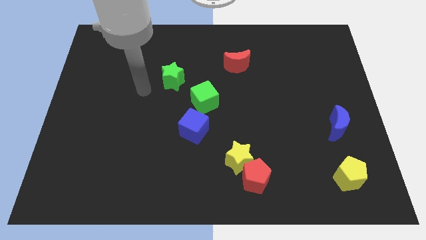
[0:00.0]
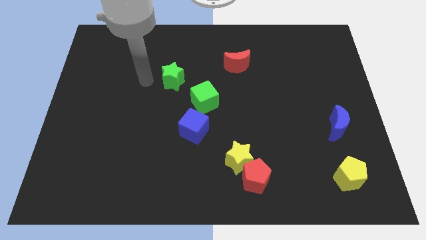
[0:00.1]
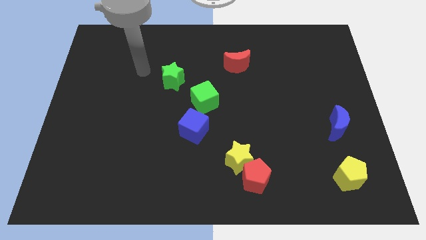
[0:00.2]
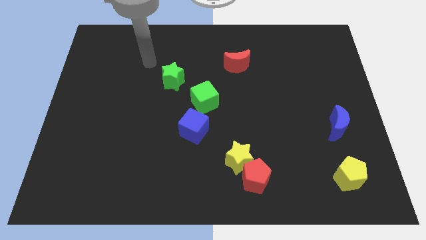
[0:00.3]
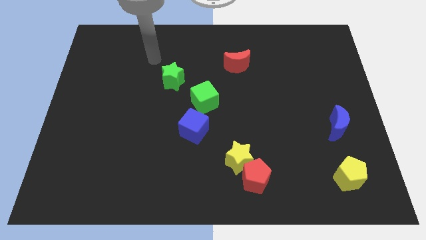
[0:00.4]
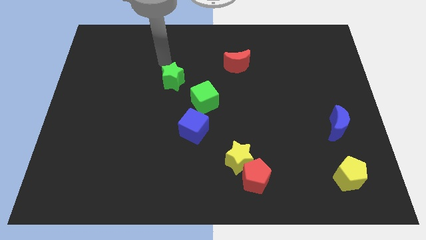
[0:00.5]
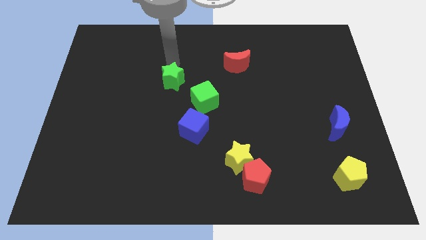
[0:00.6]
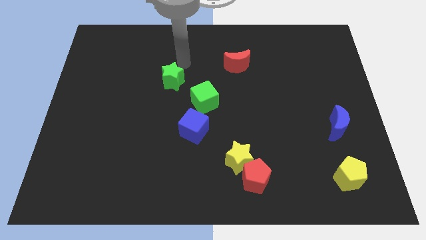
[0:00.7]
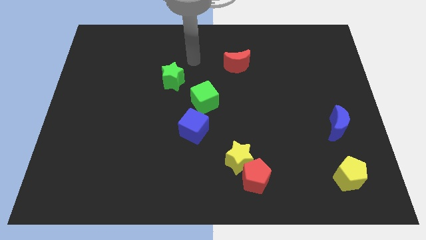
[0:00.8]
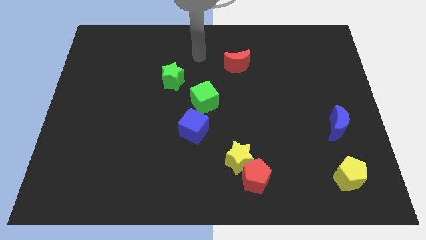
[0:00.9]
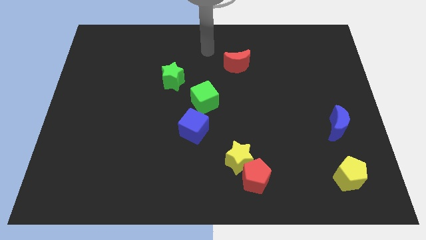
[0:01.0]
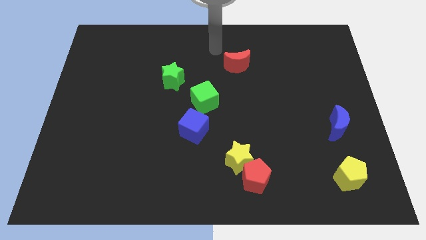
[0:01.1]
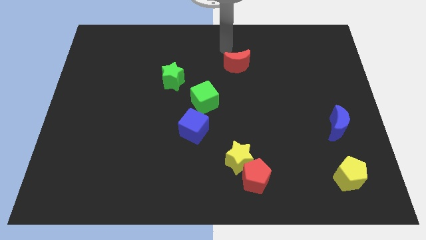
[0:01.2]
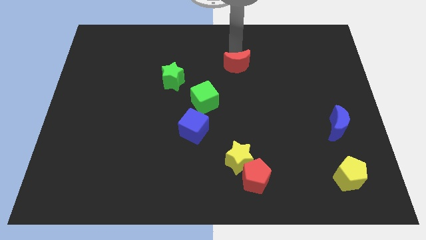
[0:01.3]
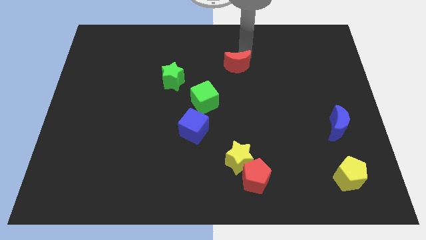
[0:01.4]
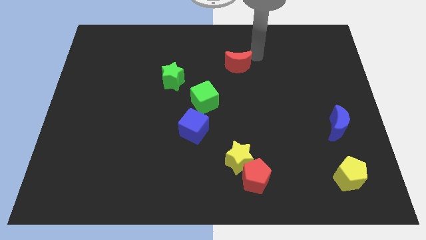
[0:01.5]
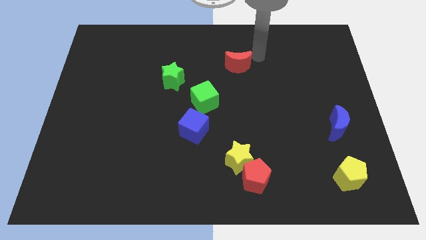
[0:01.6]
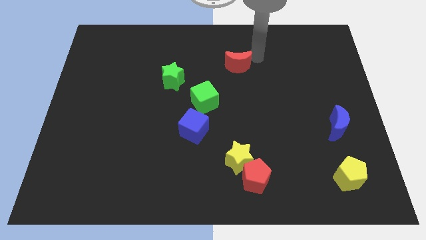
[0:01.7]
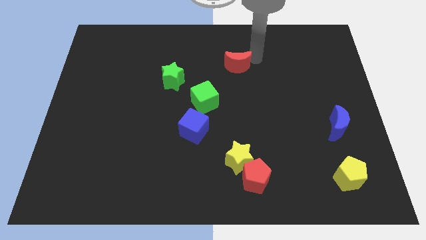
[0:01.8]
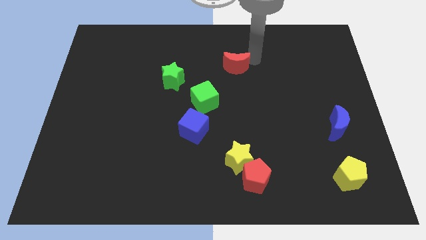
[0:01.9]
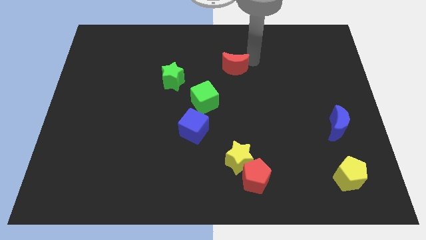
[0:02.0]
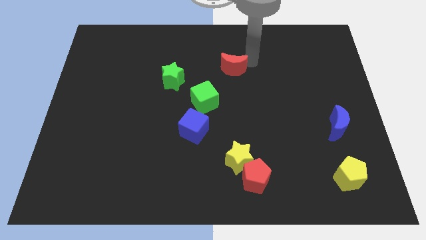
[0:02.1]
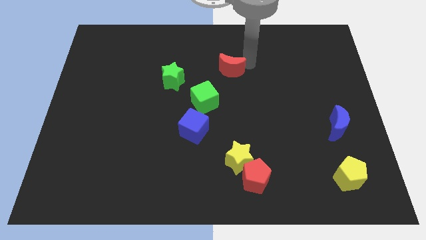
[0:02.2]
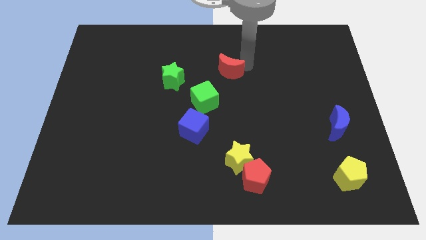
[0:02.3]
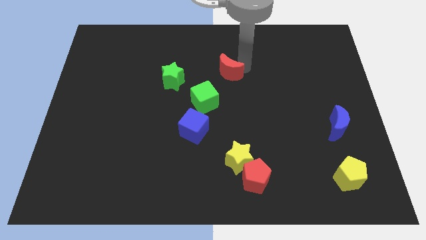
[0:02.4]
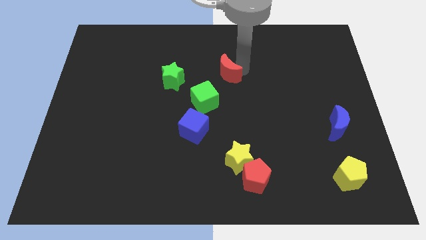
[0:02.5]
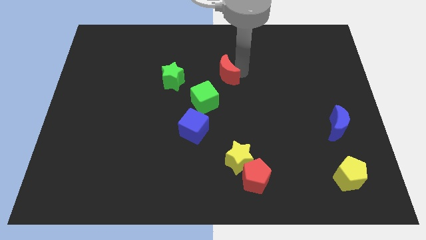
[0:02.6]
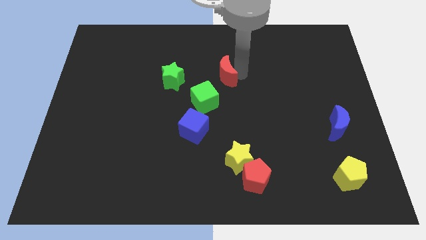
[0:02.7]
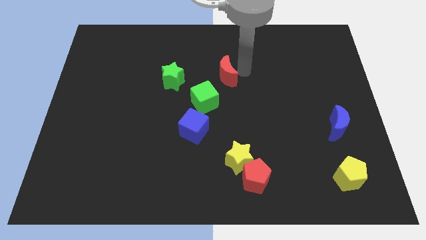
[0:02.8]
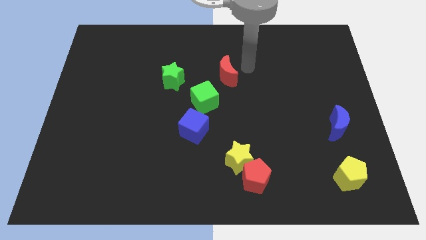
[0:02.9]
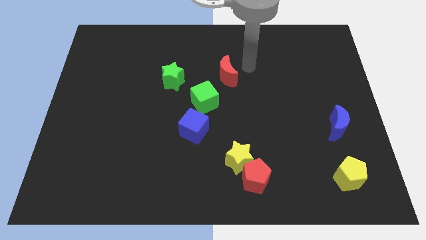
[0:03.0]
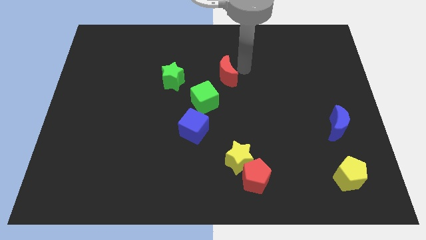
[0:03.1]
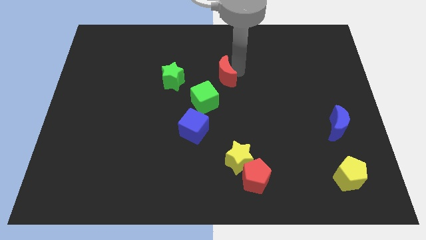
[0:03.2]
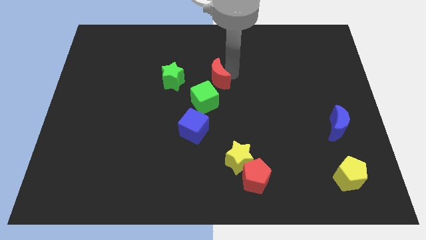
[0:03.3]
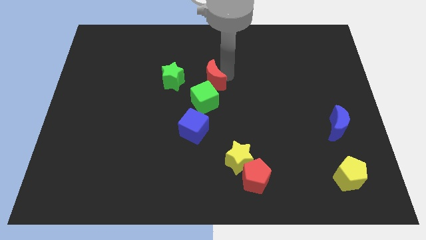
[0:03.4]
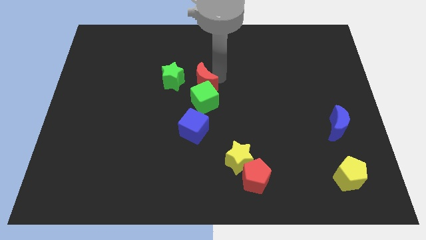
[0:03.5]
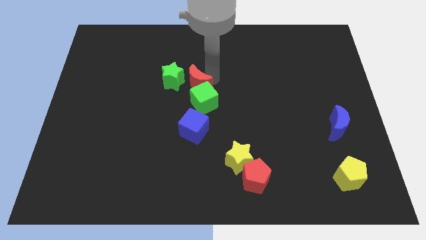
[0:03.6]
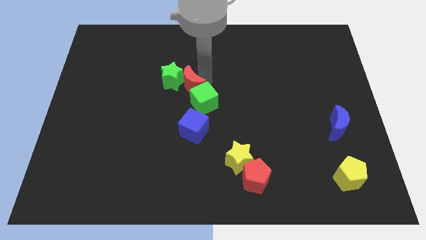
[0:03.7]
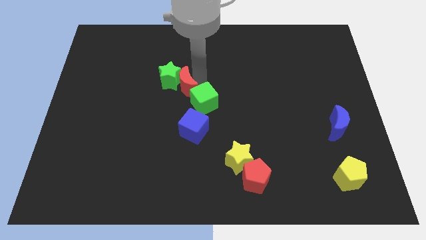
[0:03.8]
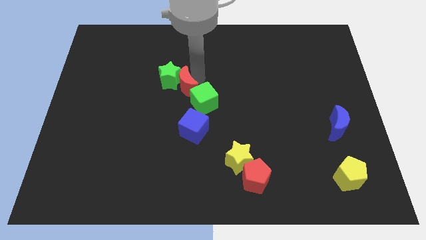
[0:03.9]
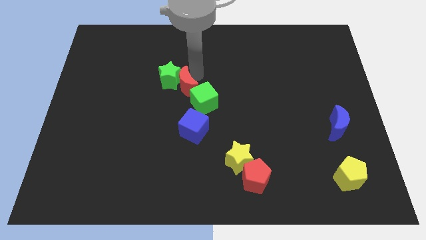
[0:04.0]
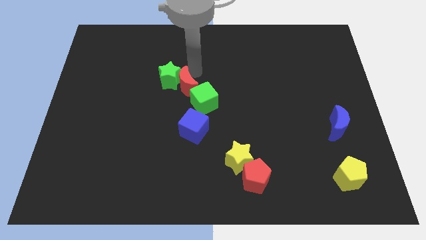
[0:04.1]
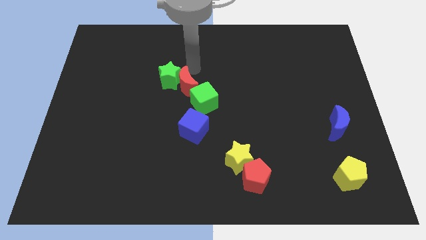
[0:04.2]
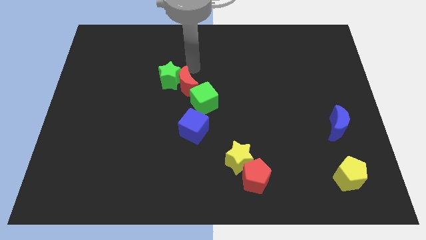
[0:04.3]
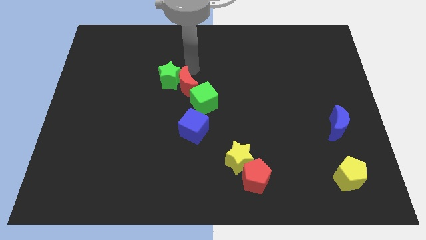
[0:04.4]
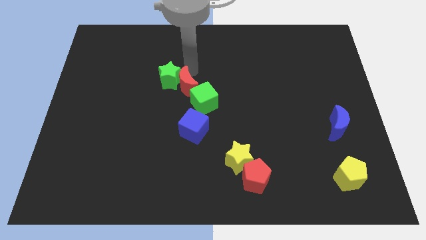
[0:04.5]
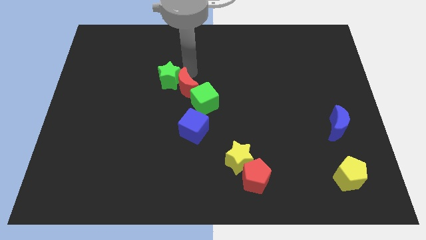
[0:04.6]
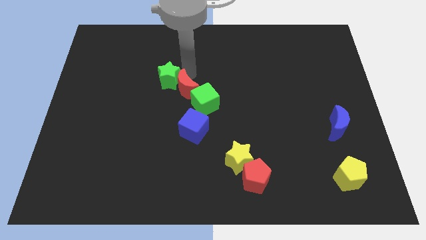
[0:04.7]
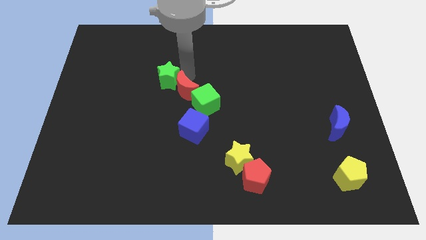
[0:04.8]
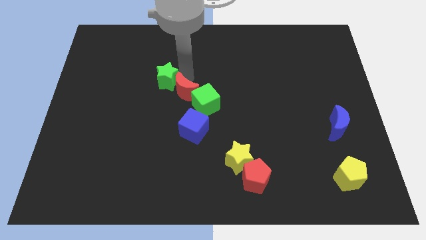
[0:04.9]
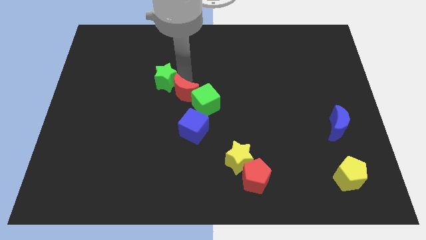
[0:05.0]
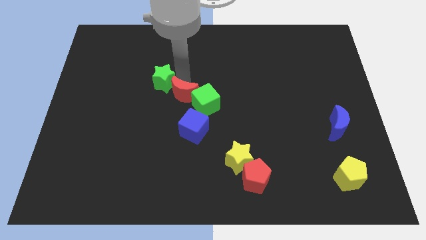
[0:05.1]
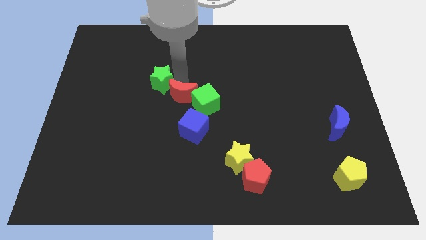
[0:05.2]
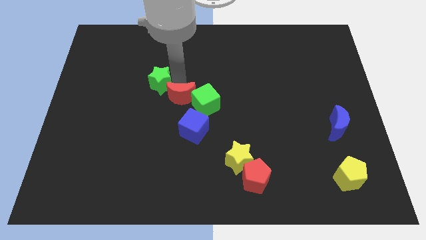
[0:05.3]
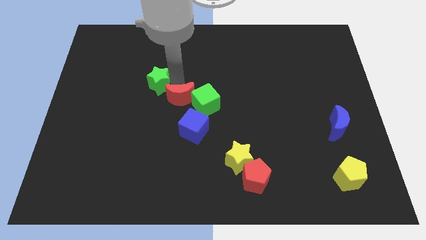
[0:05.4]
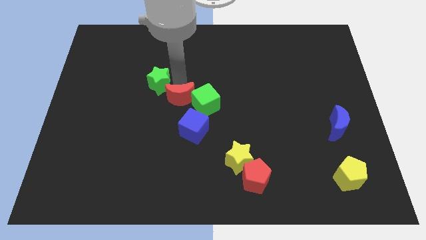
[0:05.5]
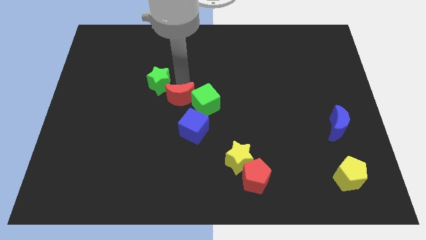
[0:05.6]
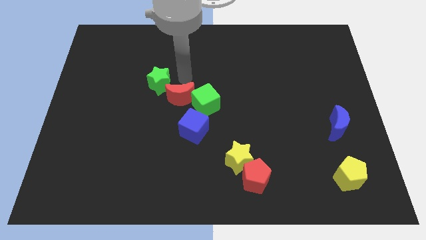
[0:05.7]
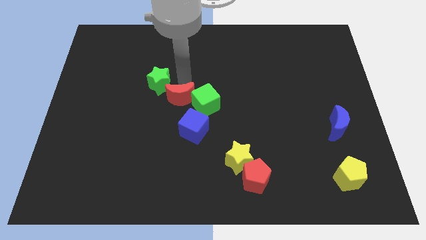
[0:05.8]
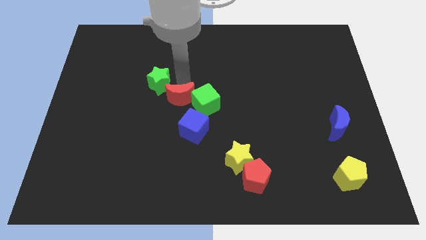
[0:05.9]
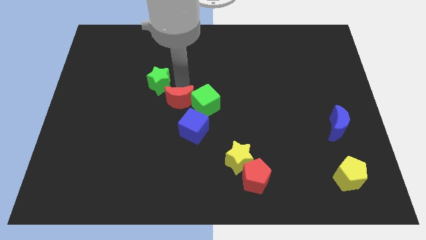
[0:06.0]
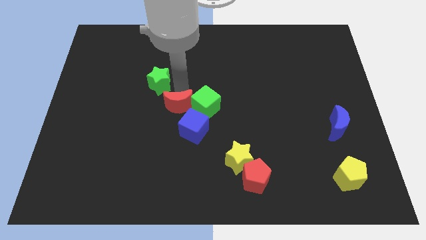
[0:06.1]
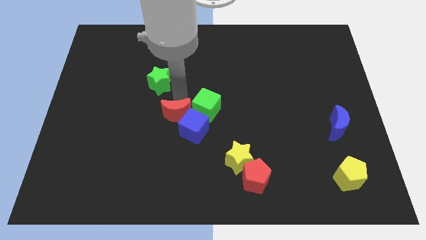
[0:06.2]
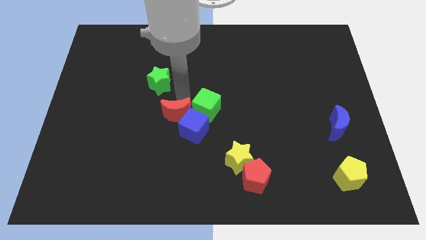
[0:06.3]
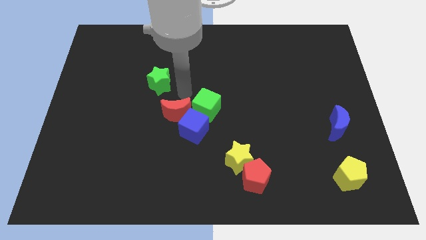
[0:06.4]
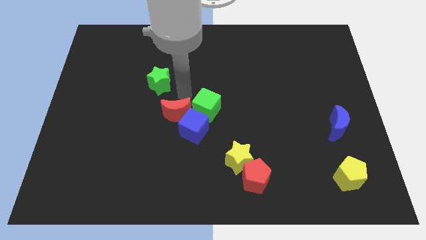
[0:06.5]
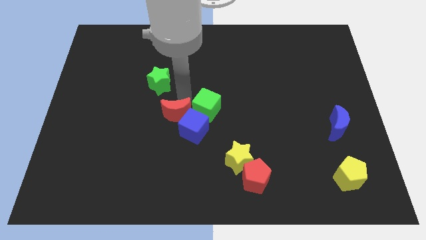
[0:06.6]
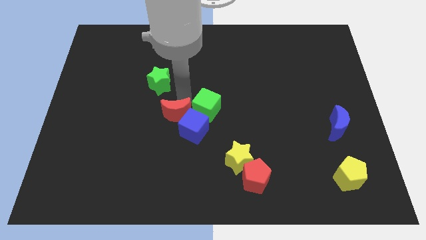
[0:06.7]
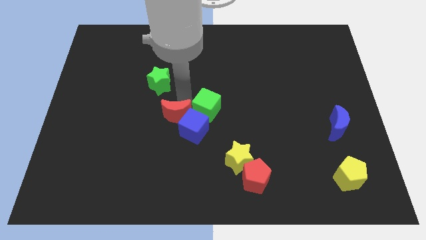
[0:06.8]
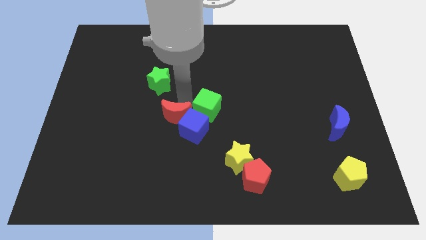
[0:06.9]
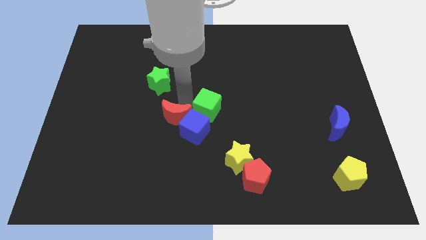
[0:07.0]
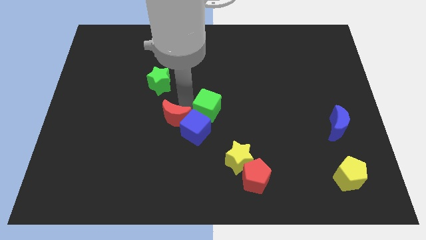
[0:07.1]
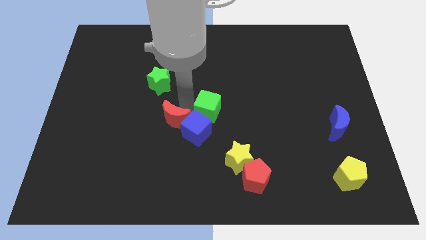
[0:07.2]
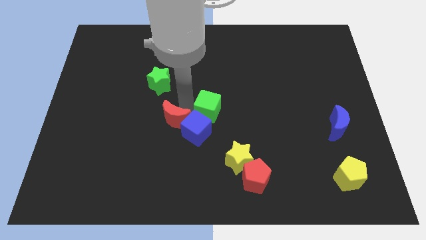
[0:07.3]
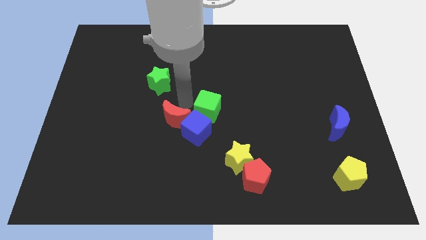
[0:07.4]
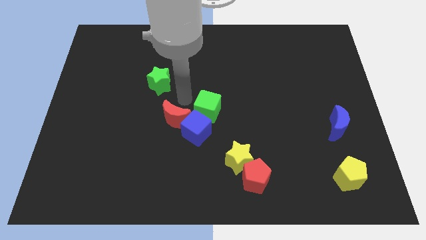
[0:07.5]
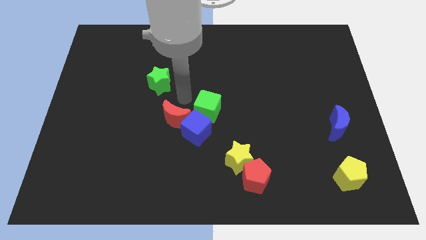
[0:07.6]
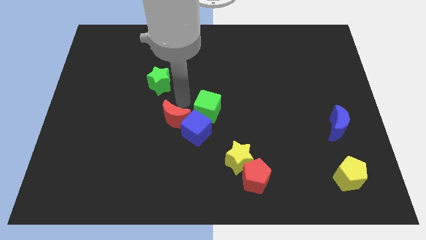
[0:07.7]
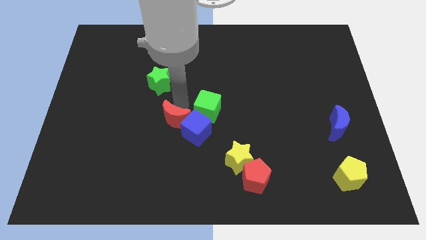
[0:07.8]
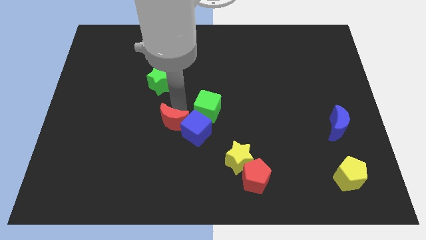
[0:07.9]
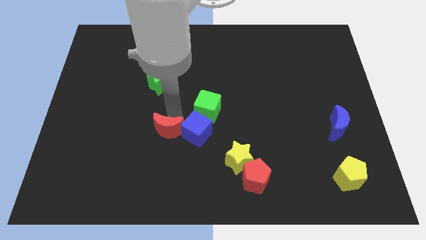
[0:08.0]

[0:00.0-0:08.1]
put the red moon to the bottom left of the blue cube
